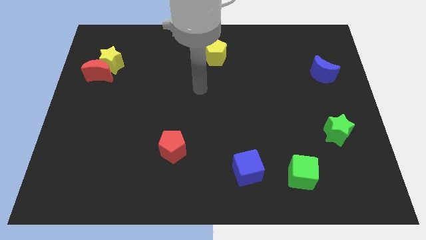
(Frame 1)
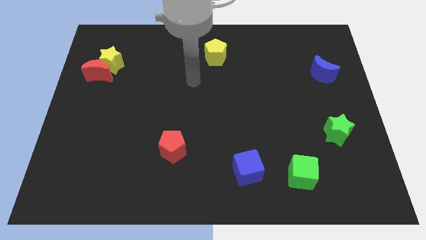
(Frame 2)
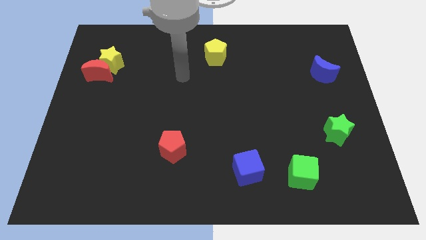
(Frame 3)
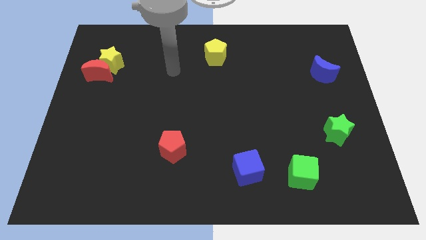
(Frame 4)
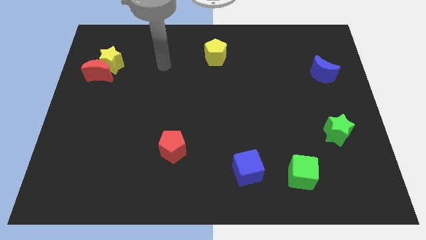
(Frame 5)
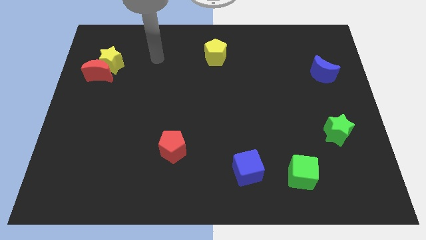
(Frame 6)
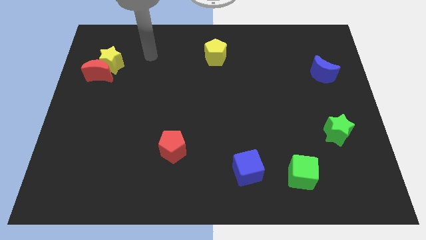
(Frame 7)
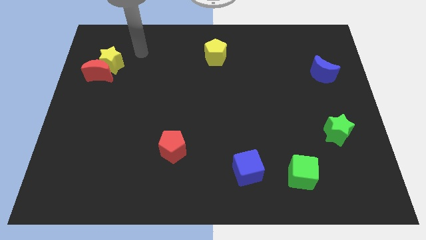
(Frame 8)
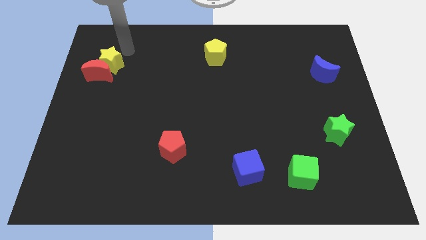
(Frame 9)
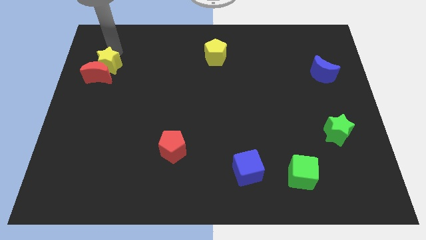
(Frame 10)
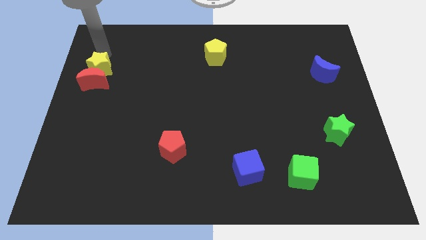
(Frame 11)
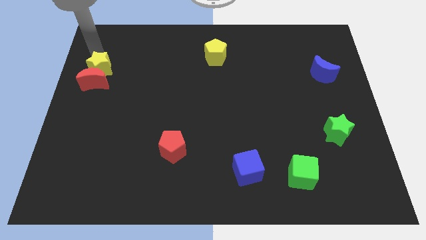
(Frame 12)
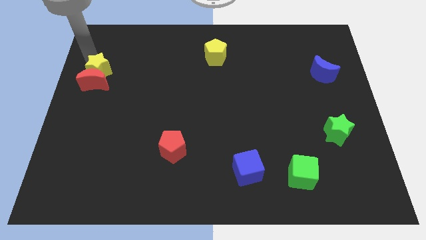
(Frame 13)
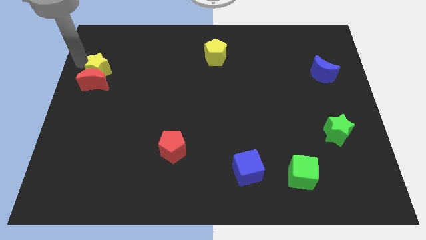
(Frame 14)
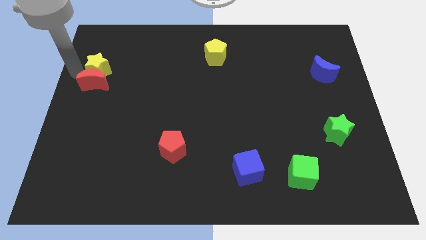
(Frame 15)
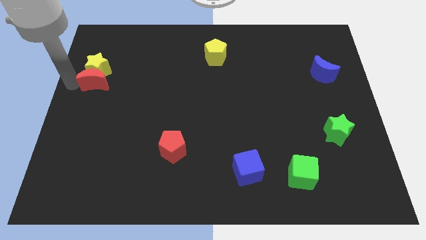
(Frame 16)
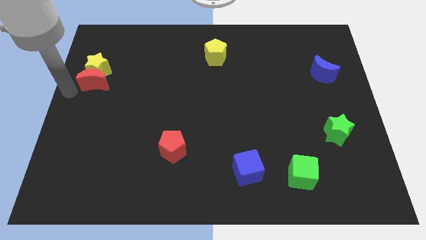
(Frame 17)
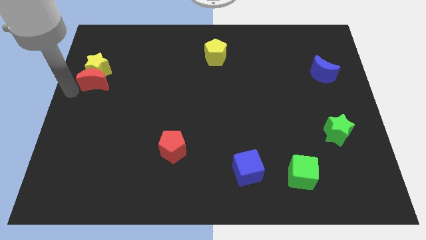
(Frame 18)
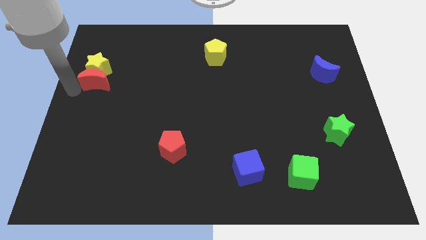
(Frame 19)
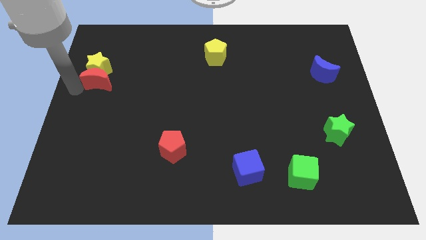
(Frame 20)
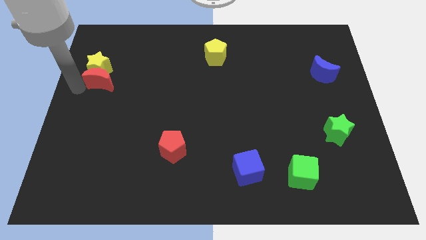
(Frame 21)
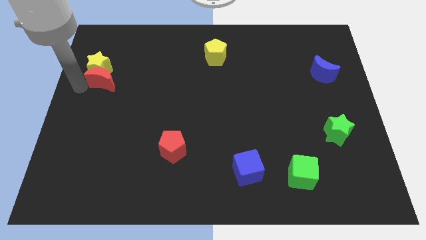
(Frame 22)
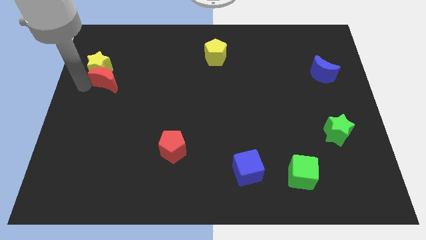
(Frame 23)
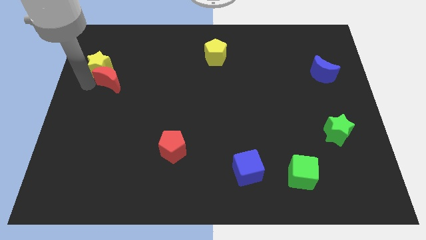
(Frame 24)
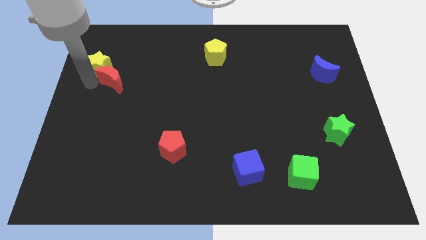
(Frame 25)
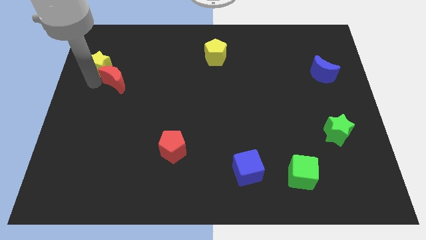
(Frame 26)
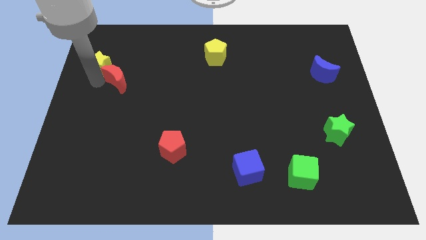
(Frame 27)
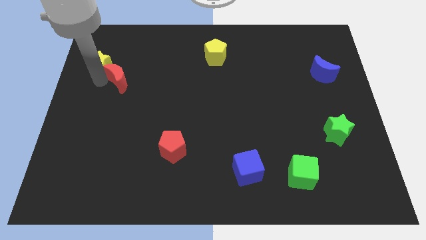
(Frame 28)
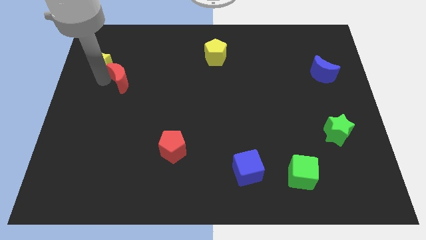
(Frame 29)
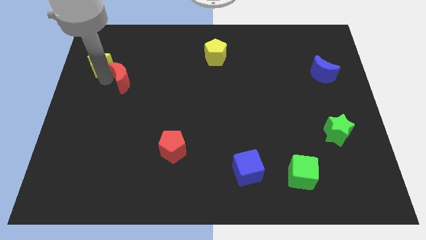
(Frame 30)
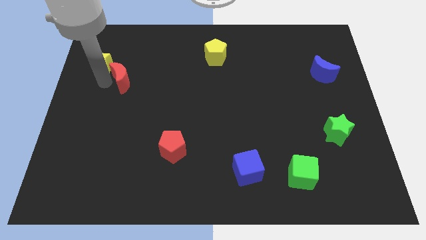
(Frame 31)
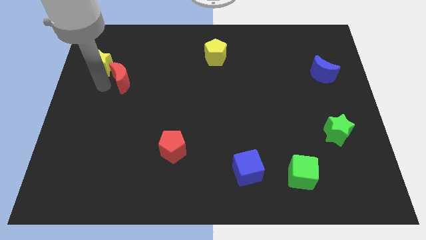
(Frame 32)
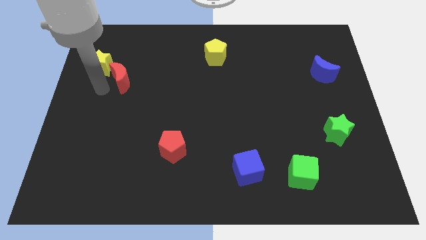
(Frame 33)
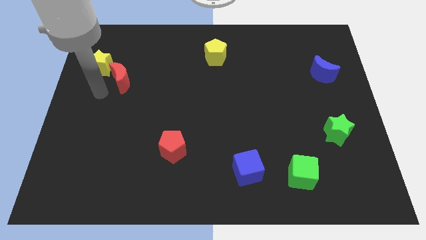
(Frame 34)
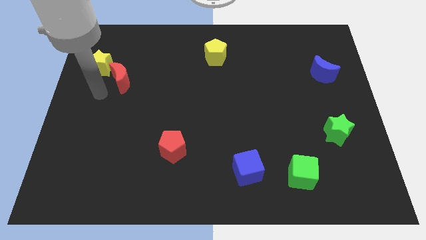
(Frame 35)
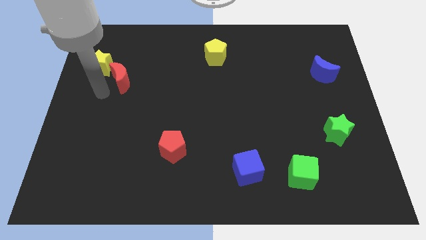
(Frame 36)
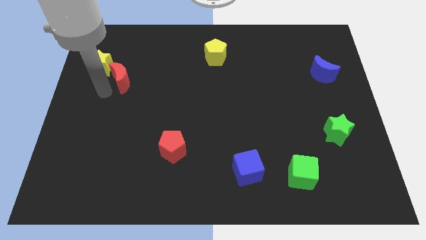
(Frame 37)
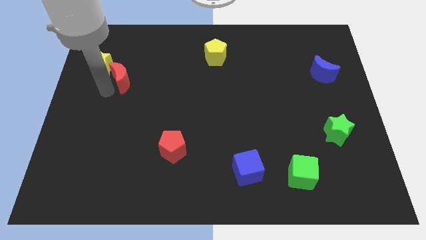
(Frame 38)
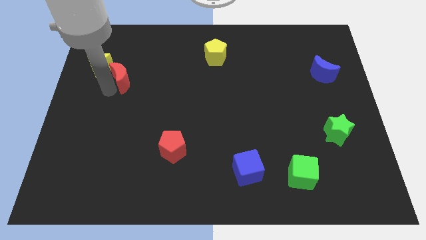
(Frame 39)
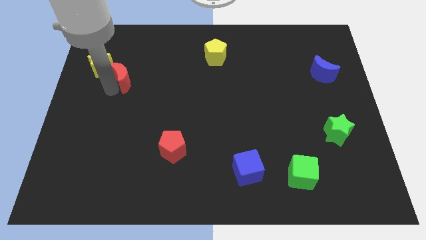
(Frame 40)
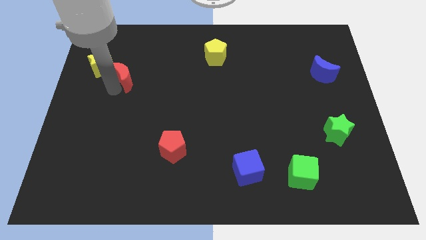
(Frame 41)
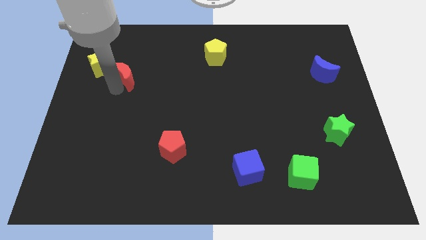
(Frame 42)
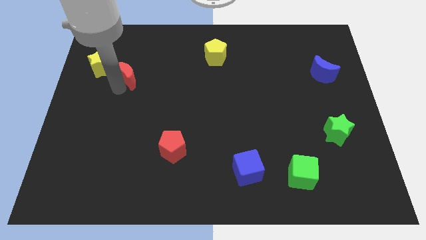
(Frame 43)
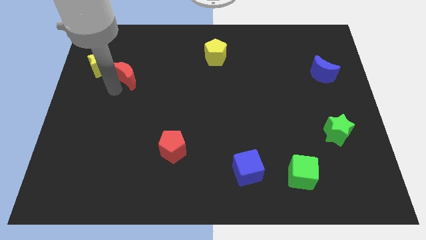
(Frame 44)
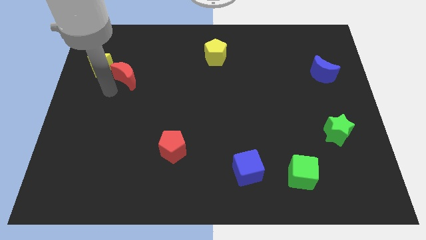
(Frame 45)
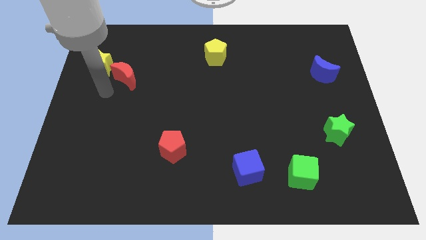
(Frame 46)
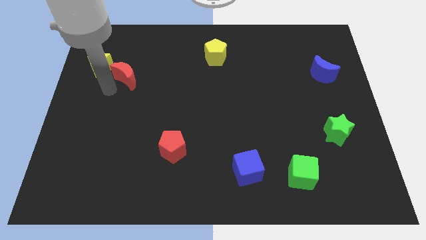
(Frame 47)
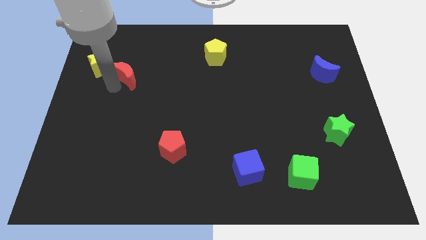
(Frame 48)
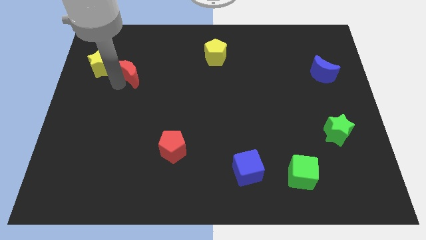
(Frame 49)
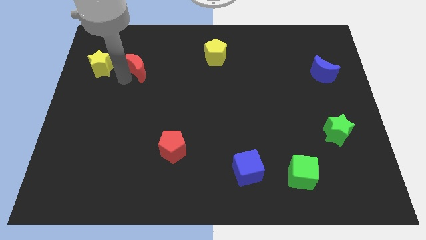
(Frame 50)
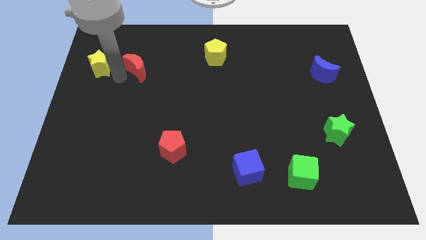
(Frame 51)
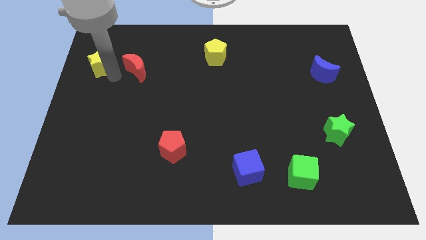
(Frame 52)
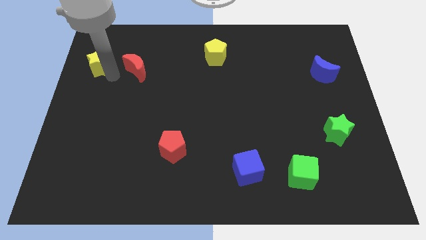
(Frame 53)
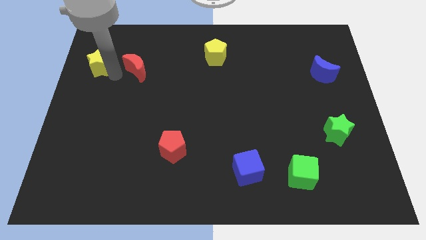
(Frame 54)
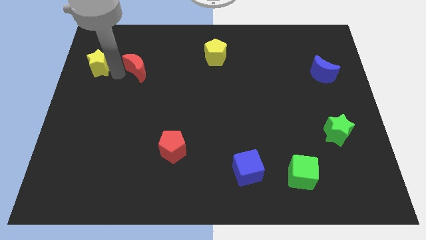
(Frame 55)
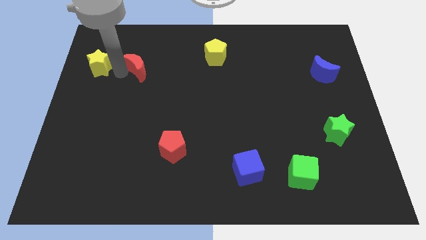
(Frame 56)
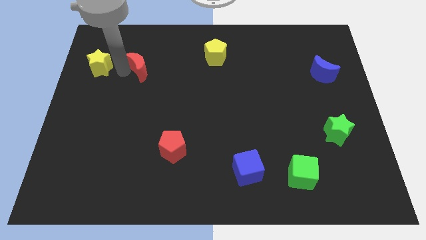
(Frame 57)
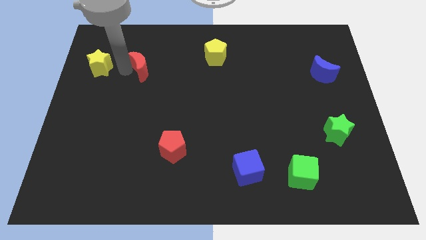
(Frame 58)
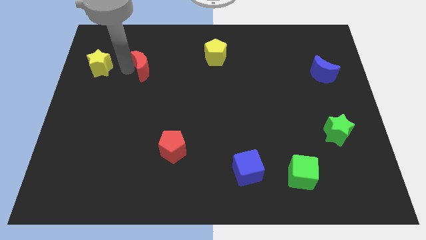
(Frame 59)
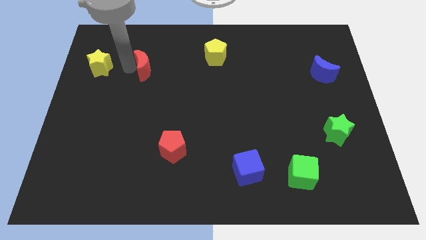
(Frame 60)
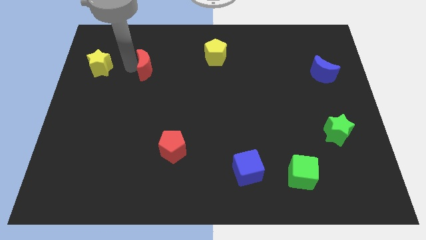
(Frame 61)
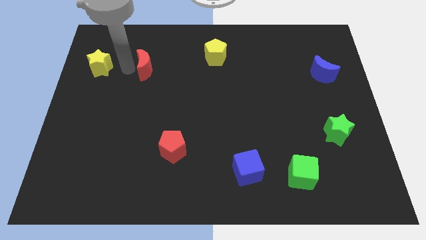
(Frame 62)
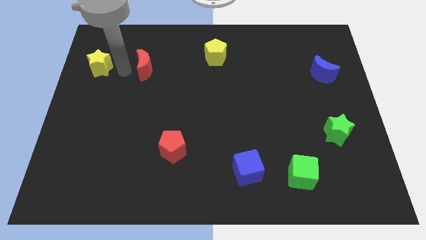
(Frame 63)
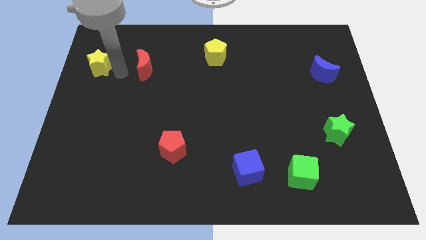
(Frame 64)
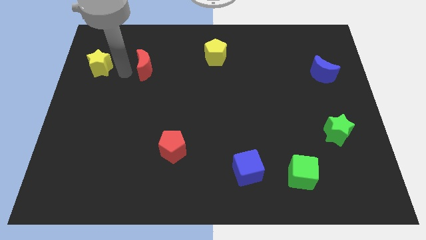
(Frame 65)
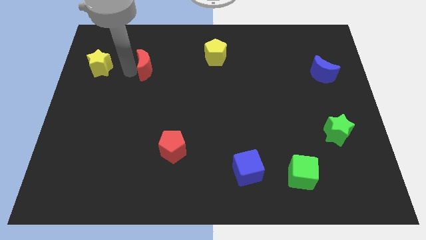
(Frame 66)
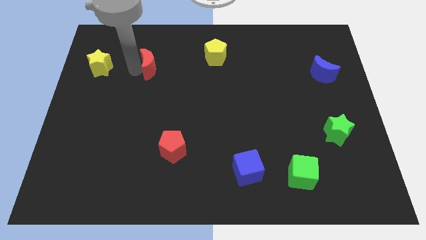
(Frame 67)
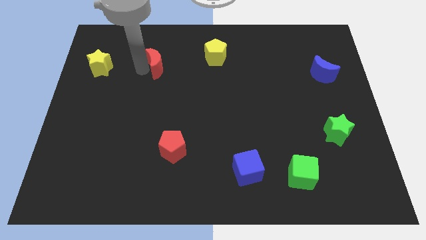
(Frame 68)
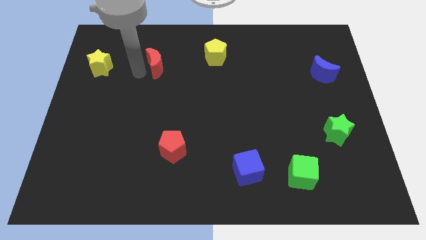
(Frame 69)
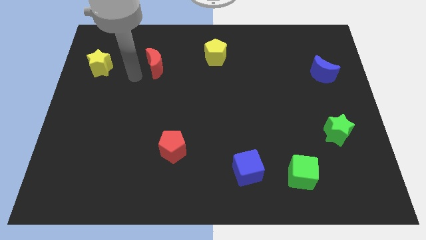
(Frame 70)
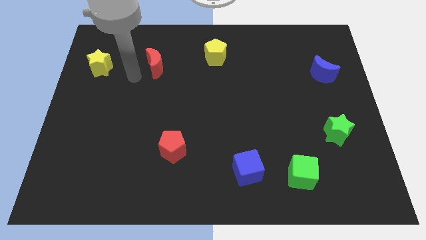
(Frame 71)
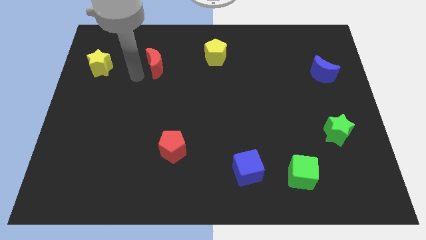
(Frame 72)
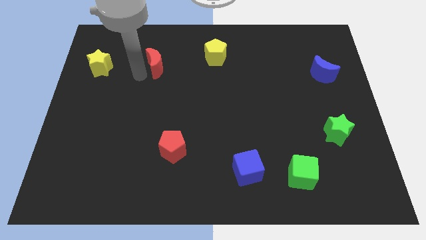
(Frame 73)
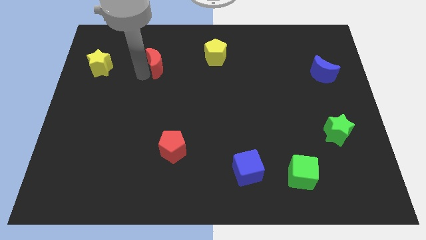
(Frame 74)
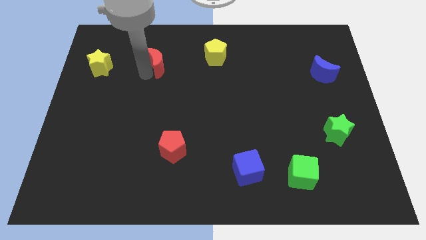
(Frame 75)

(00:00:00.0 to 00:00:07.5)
put the red moon to the left side of the yellow pentagon
